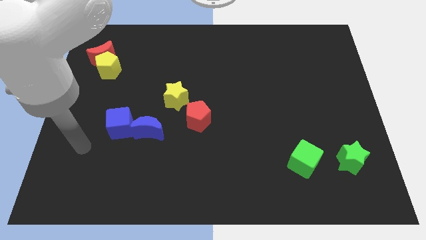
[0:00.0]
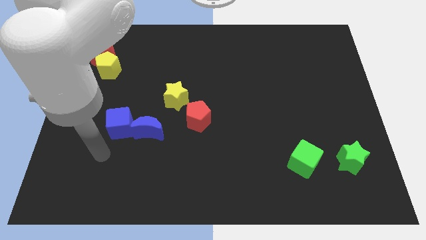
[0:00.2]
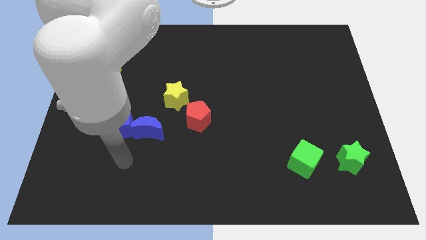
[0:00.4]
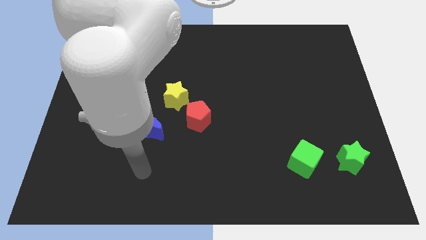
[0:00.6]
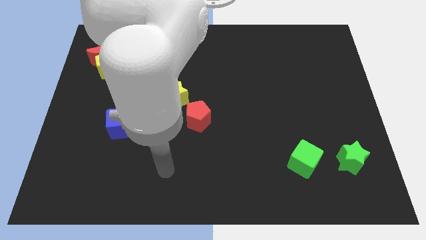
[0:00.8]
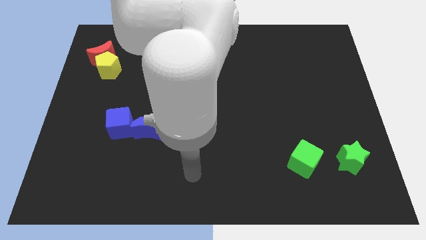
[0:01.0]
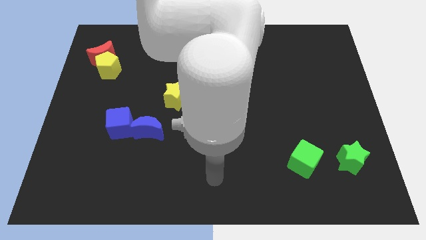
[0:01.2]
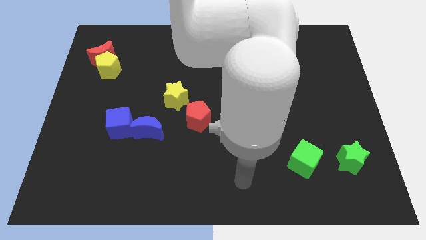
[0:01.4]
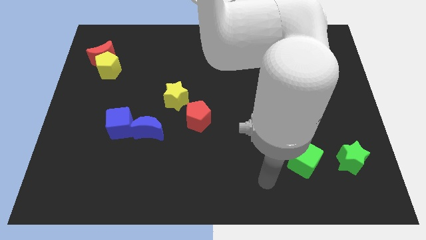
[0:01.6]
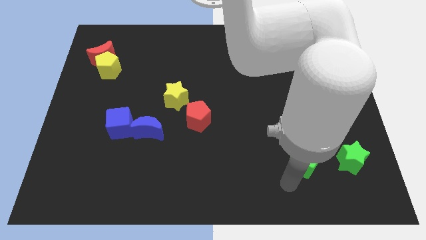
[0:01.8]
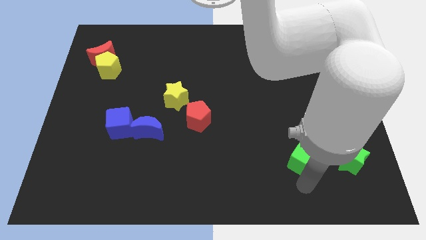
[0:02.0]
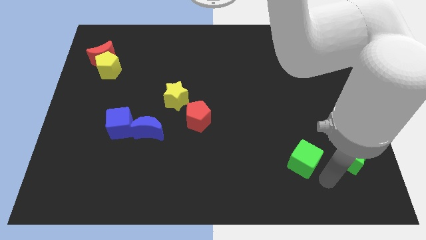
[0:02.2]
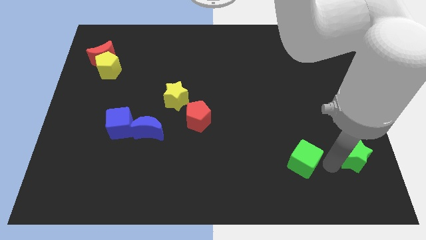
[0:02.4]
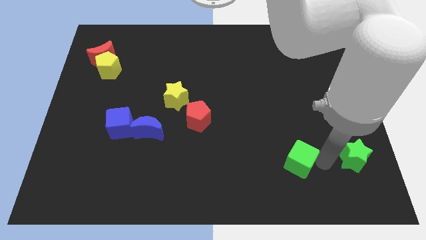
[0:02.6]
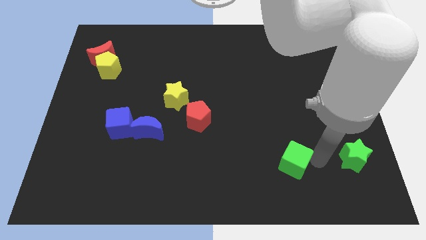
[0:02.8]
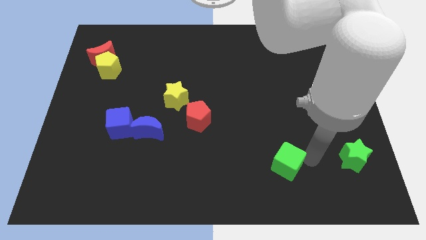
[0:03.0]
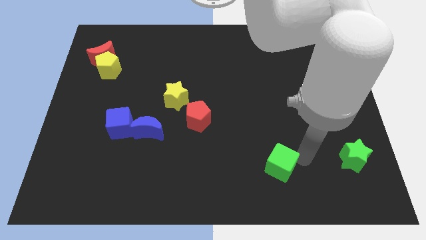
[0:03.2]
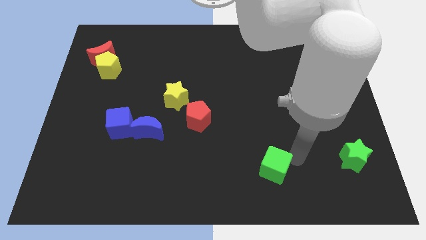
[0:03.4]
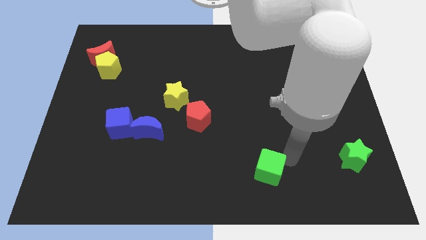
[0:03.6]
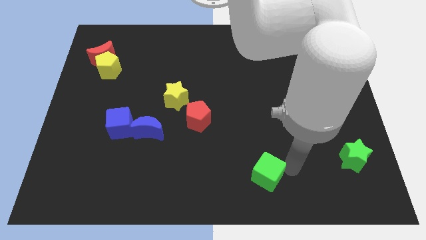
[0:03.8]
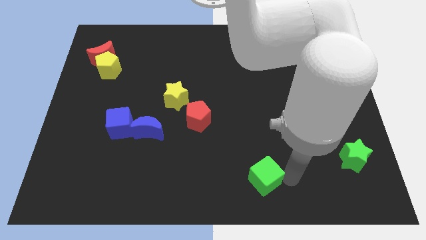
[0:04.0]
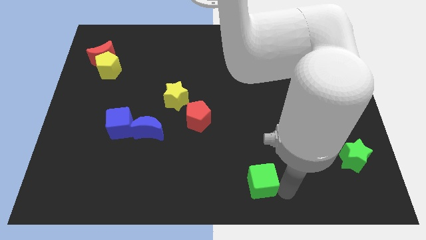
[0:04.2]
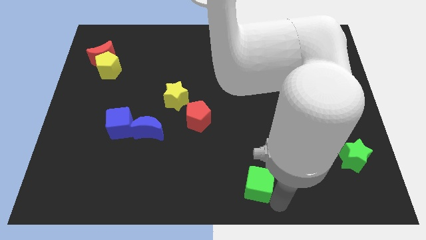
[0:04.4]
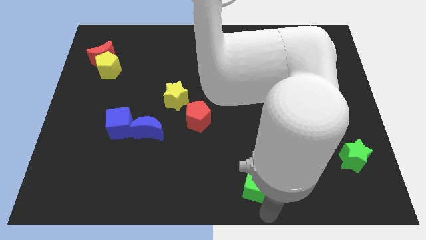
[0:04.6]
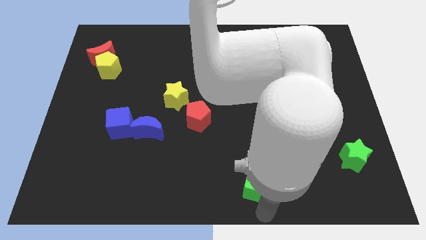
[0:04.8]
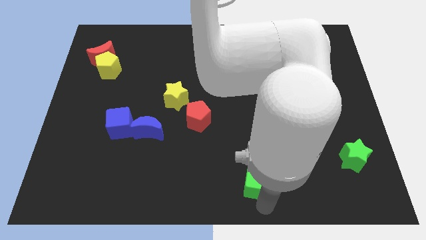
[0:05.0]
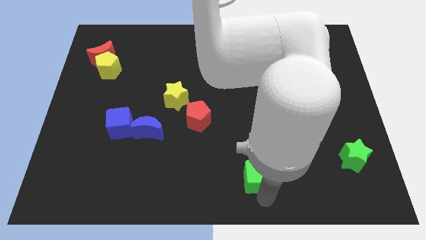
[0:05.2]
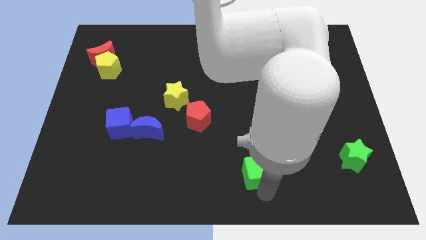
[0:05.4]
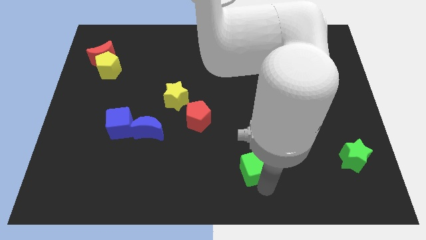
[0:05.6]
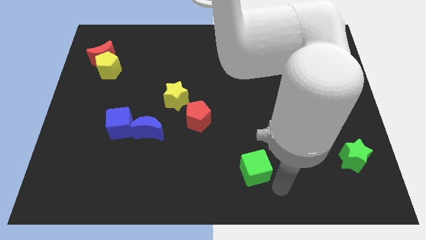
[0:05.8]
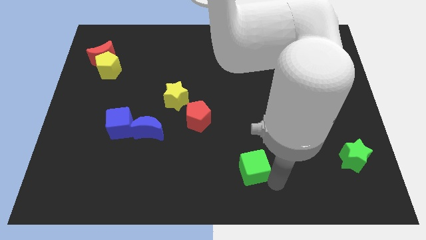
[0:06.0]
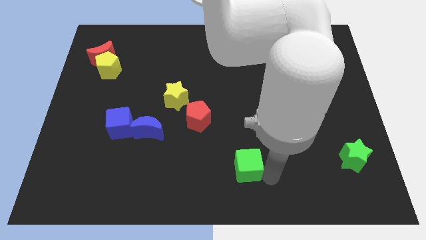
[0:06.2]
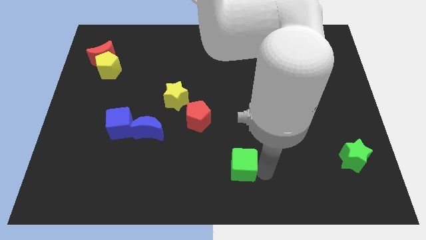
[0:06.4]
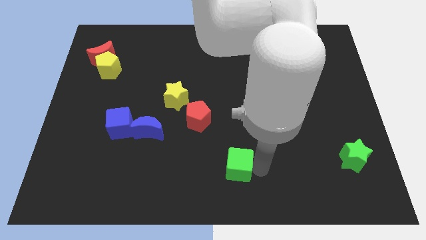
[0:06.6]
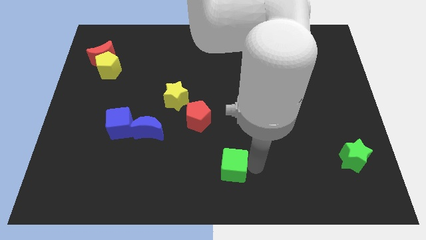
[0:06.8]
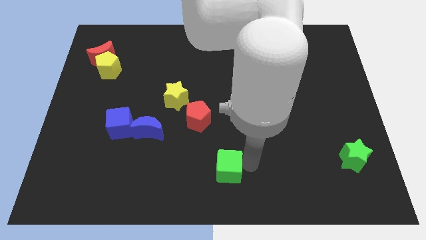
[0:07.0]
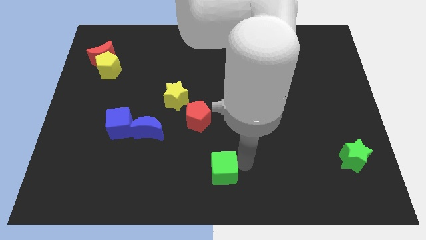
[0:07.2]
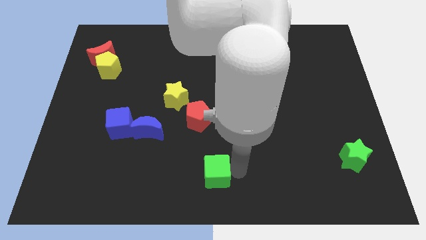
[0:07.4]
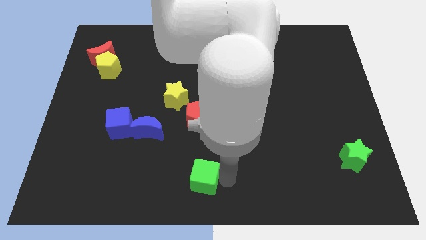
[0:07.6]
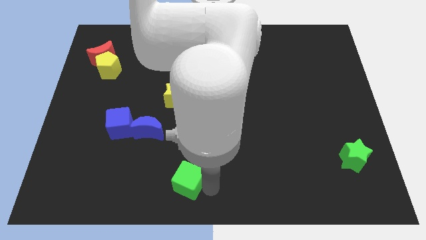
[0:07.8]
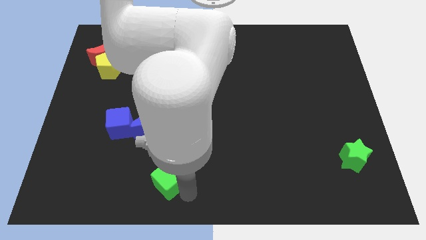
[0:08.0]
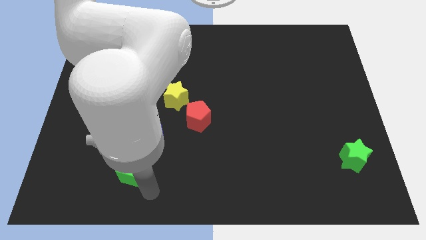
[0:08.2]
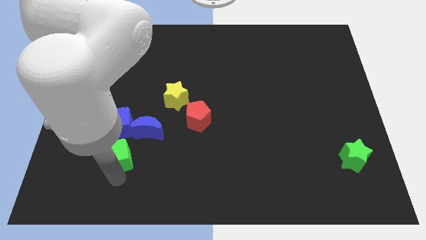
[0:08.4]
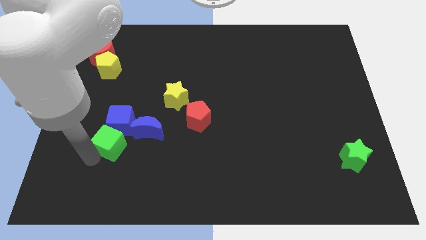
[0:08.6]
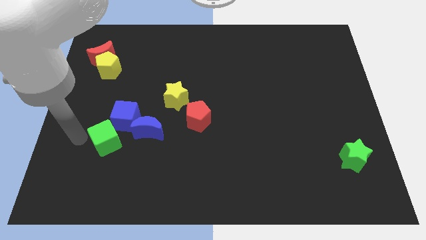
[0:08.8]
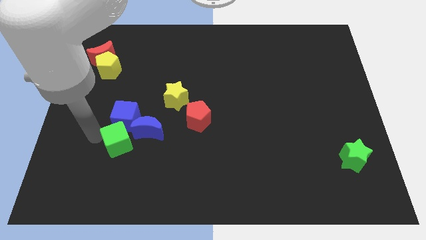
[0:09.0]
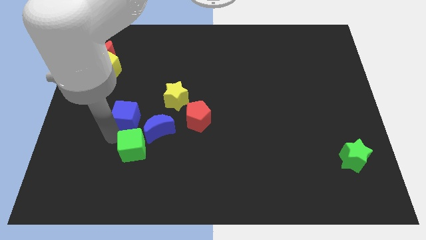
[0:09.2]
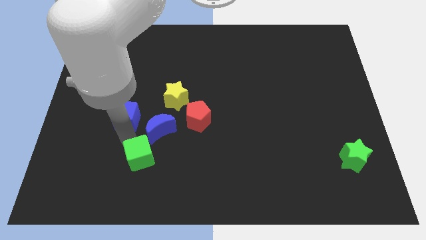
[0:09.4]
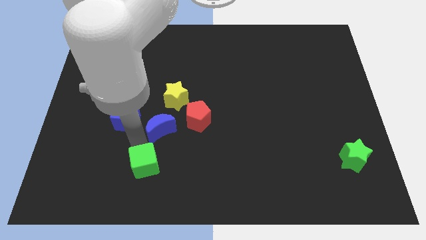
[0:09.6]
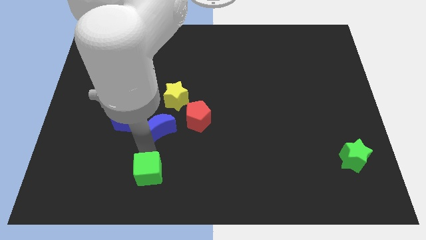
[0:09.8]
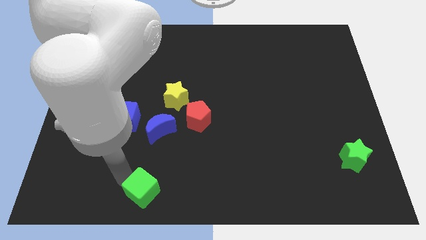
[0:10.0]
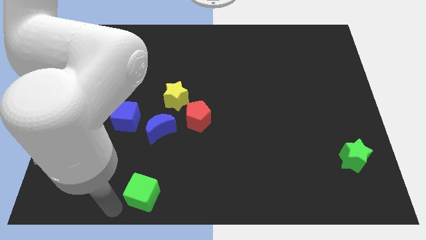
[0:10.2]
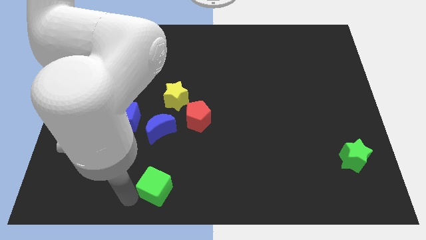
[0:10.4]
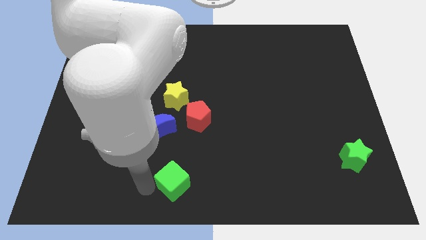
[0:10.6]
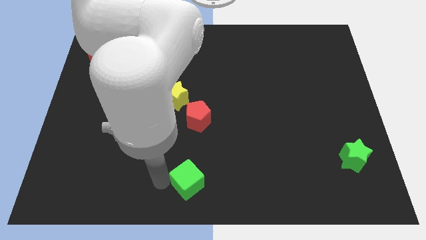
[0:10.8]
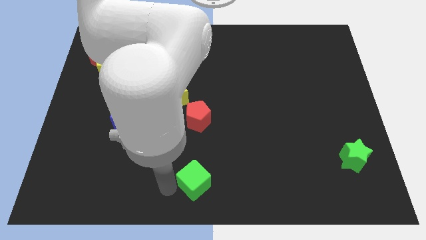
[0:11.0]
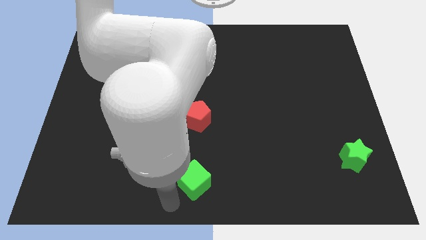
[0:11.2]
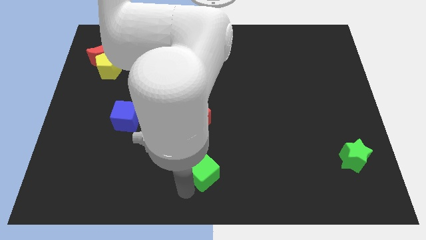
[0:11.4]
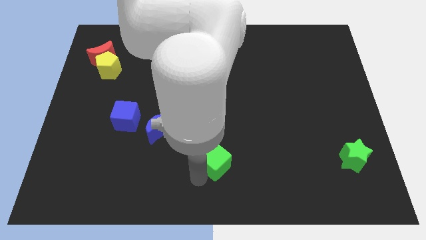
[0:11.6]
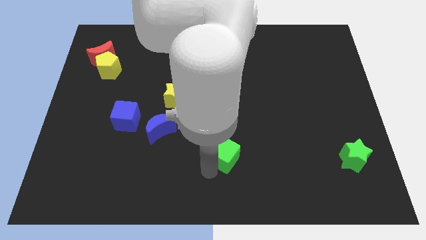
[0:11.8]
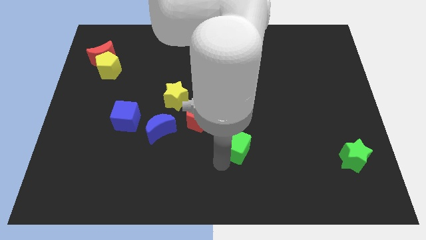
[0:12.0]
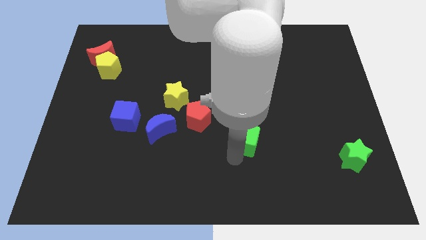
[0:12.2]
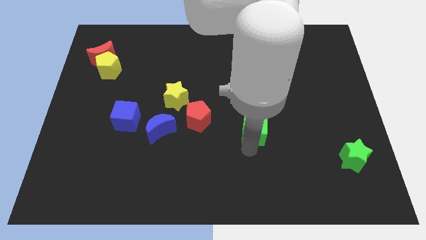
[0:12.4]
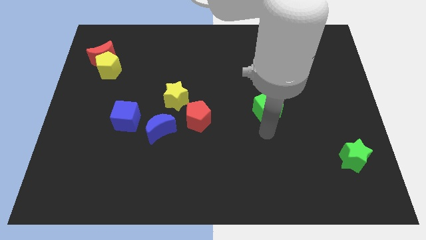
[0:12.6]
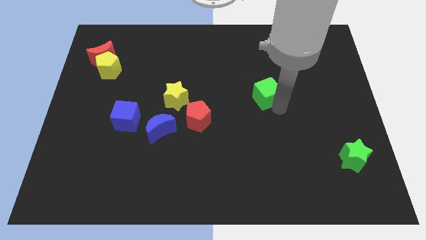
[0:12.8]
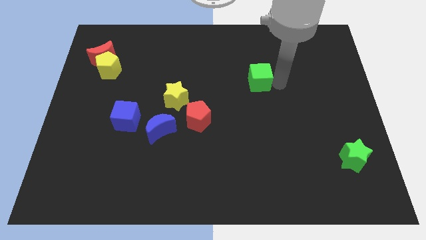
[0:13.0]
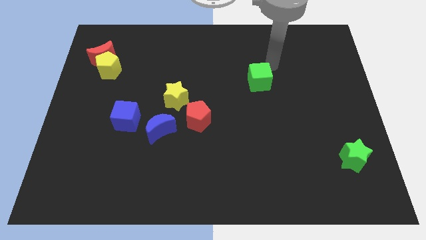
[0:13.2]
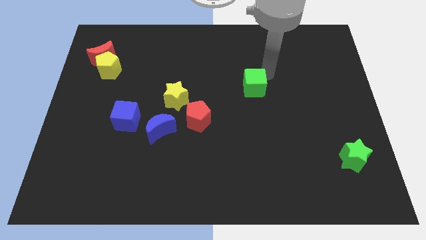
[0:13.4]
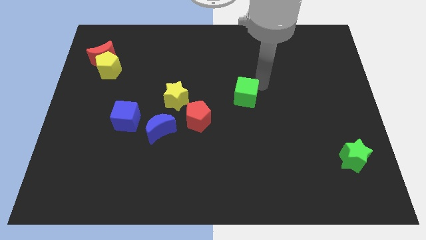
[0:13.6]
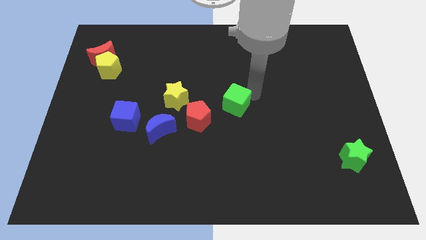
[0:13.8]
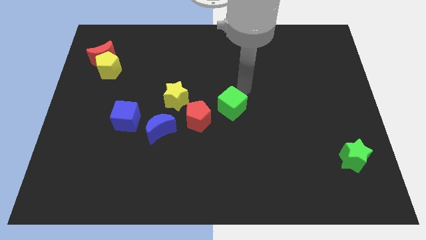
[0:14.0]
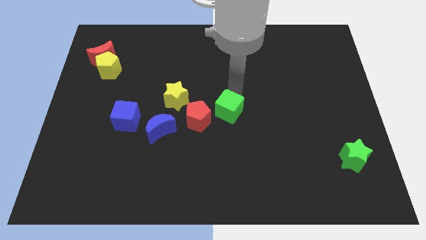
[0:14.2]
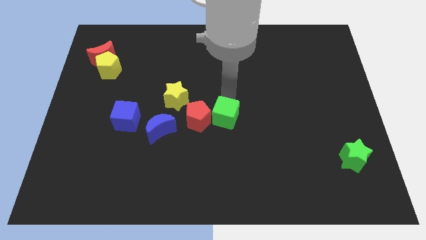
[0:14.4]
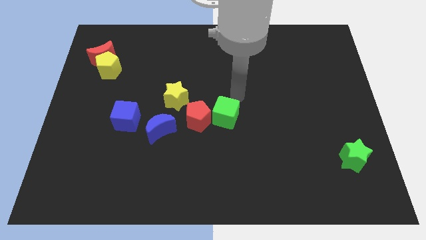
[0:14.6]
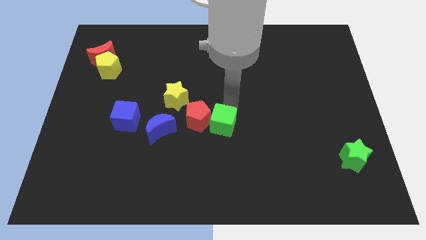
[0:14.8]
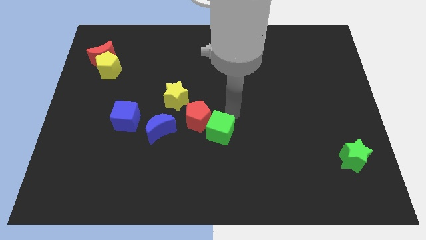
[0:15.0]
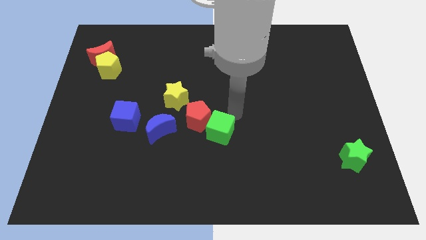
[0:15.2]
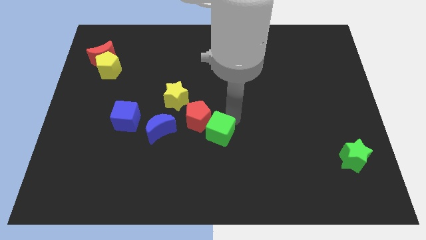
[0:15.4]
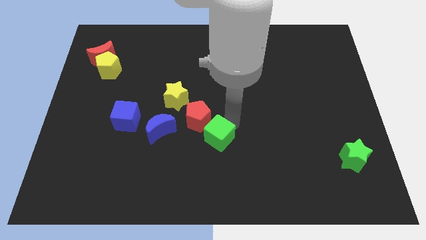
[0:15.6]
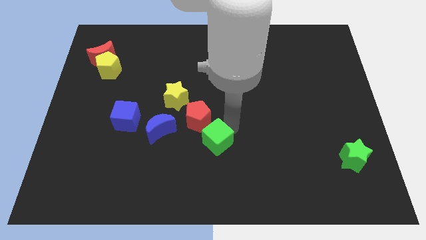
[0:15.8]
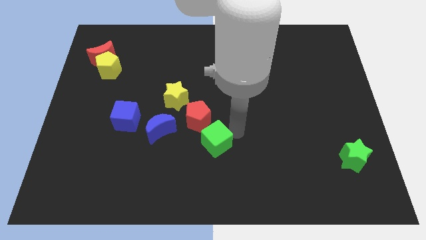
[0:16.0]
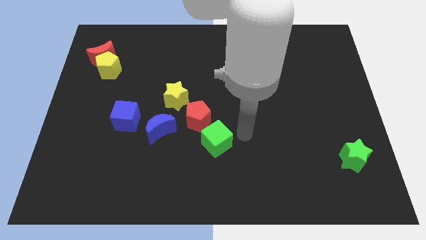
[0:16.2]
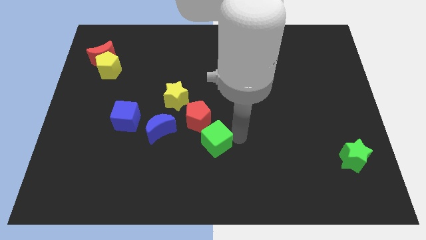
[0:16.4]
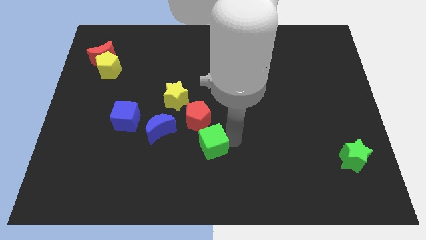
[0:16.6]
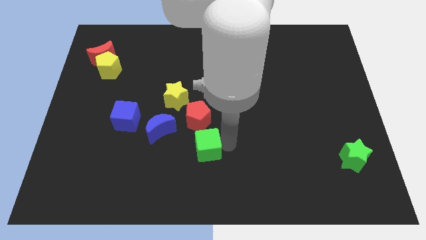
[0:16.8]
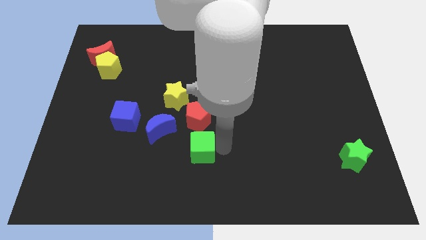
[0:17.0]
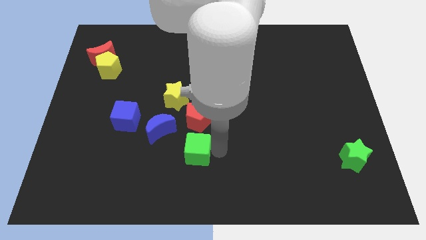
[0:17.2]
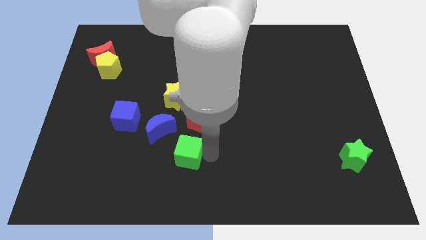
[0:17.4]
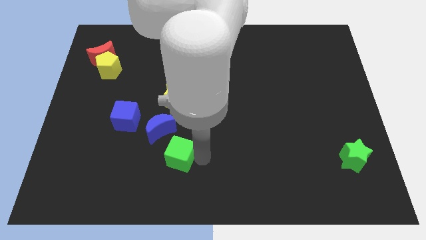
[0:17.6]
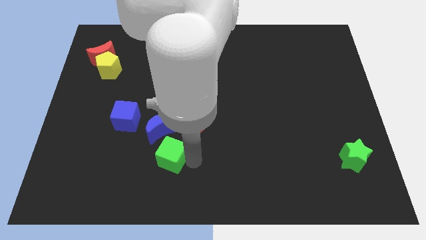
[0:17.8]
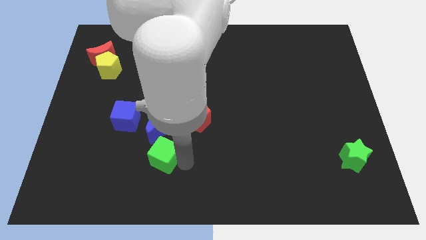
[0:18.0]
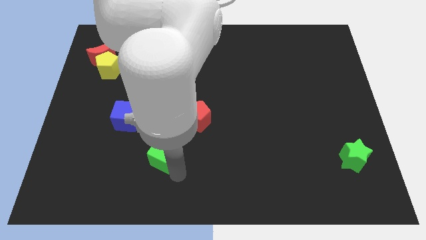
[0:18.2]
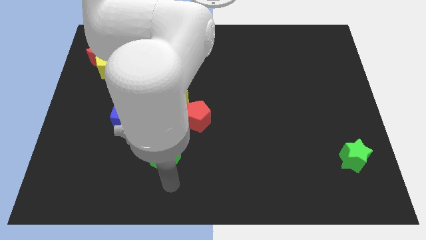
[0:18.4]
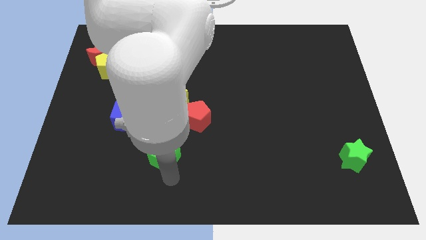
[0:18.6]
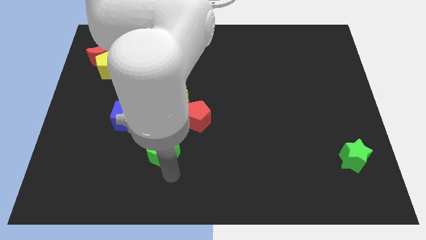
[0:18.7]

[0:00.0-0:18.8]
put the green cube to the blue moon
